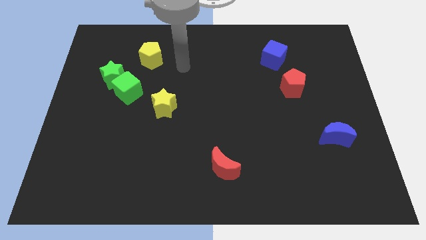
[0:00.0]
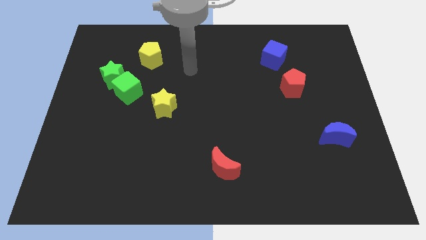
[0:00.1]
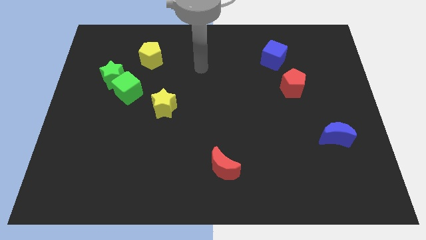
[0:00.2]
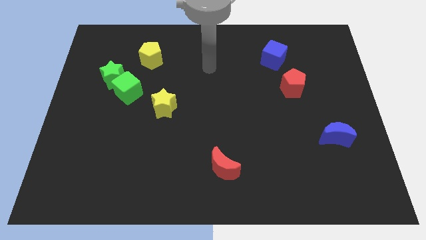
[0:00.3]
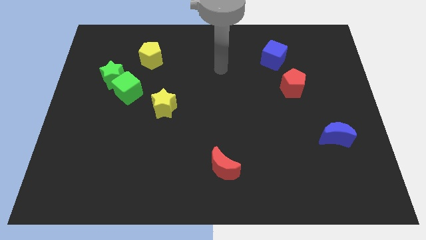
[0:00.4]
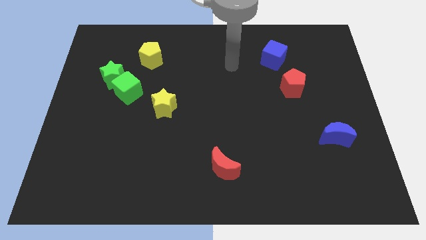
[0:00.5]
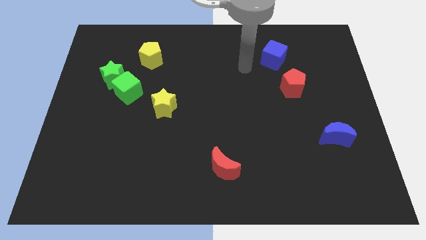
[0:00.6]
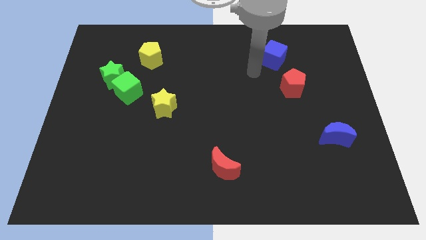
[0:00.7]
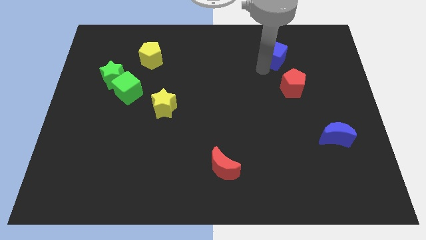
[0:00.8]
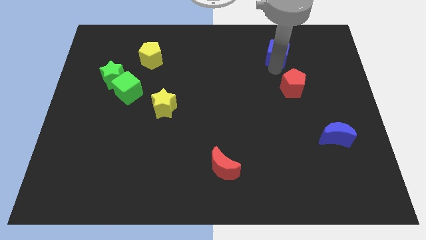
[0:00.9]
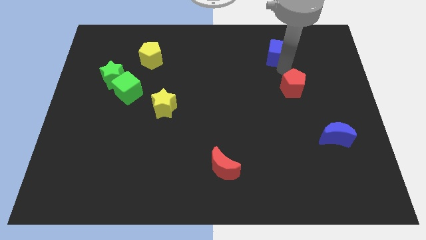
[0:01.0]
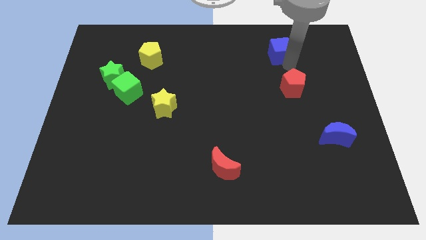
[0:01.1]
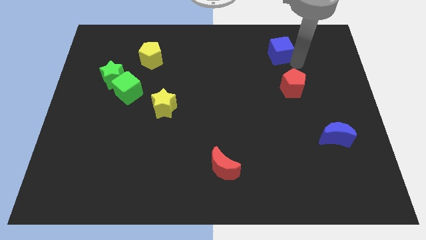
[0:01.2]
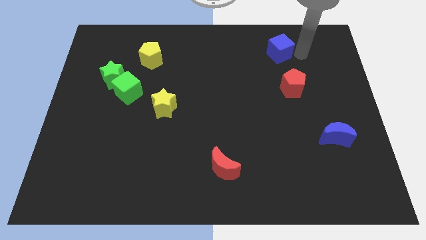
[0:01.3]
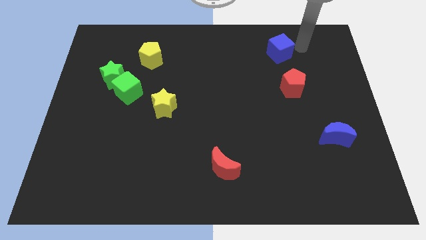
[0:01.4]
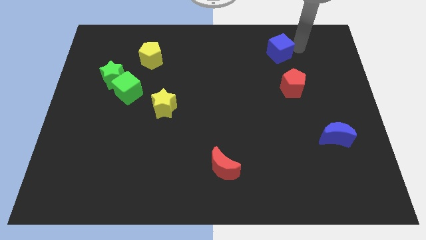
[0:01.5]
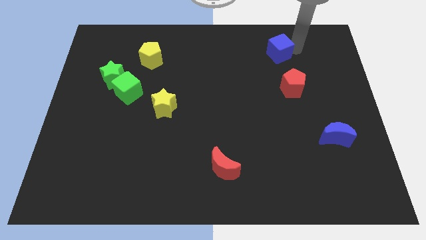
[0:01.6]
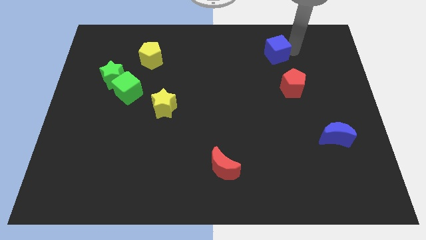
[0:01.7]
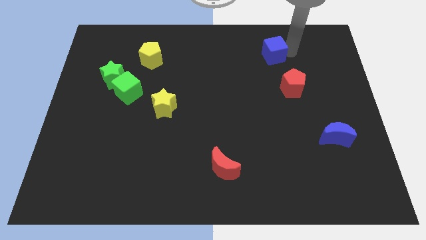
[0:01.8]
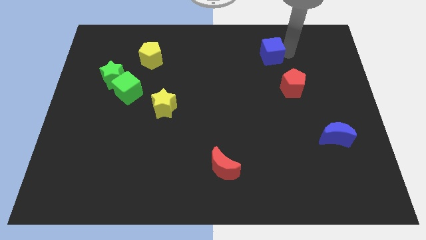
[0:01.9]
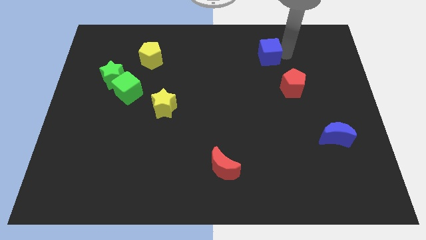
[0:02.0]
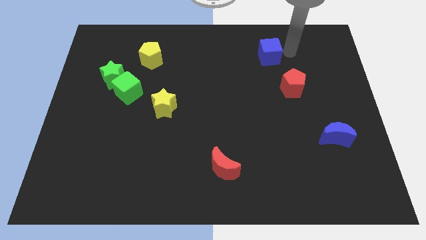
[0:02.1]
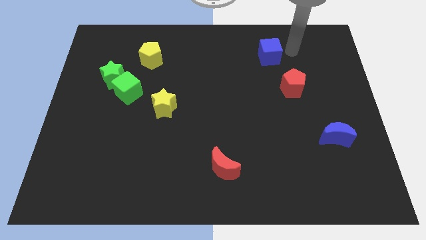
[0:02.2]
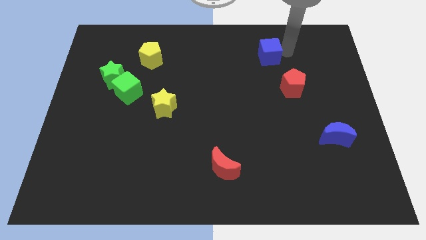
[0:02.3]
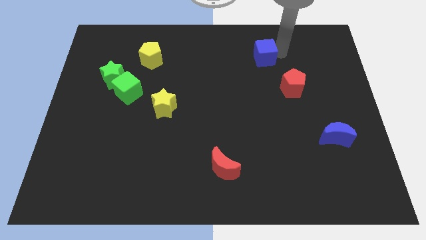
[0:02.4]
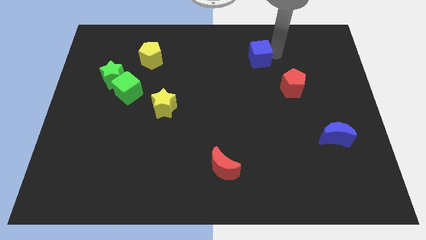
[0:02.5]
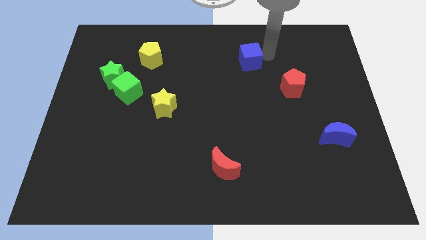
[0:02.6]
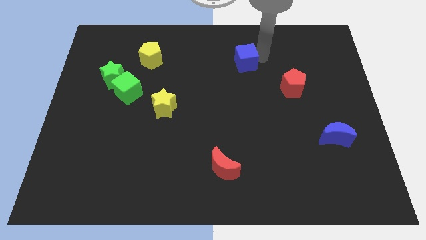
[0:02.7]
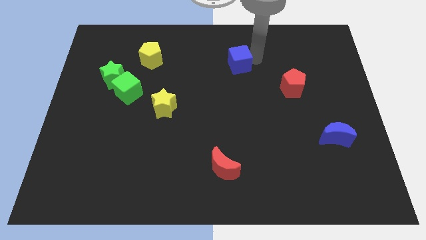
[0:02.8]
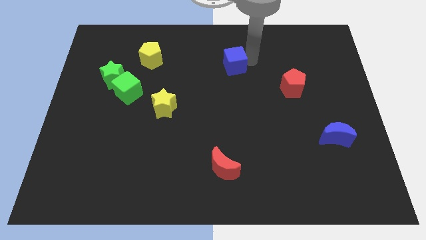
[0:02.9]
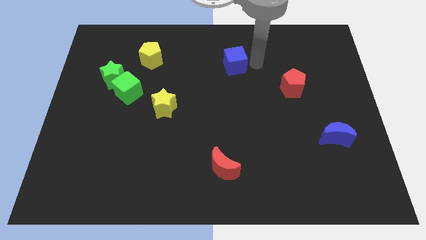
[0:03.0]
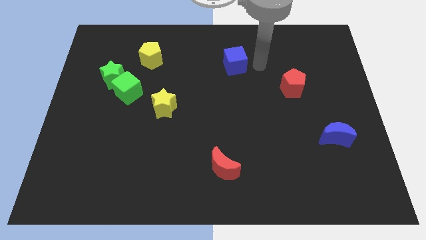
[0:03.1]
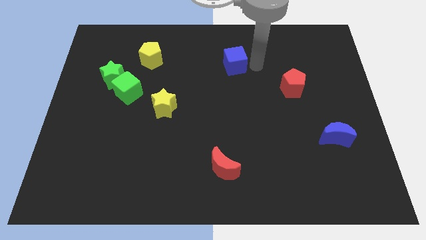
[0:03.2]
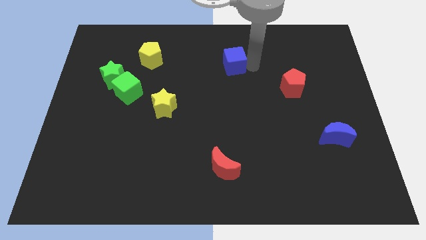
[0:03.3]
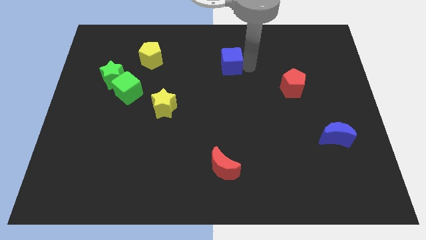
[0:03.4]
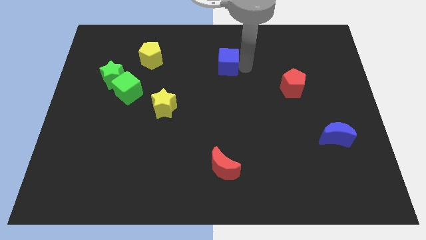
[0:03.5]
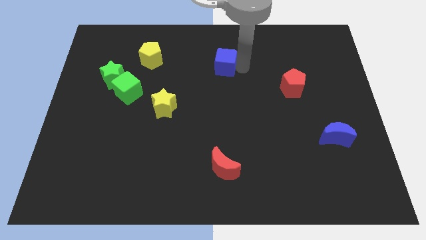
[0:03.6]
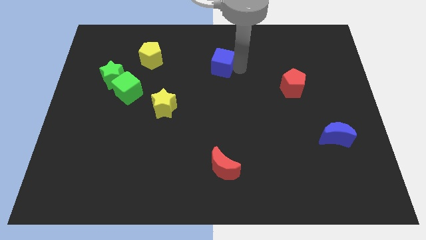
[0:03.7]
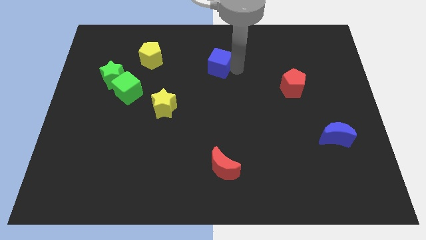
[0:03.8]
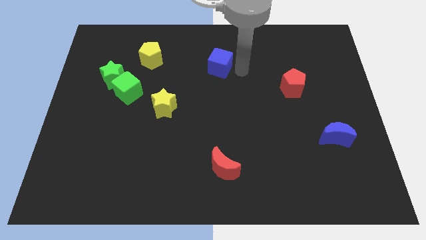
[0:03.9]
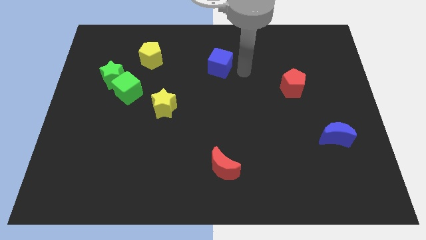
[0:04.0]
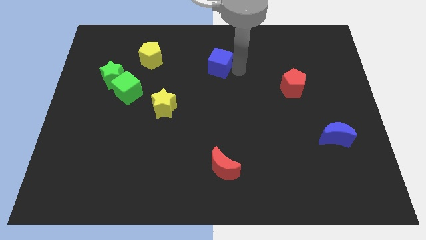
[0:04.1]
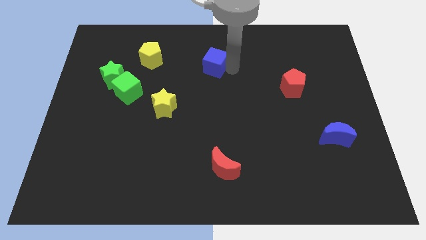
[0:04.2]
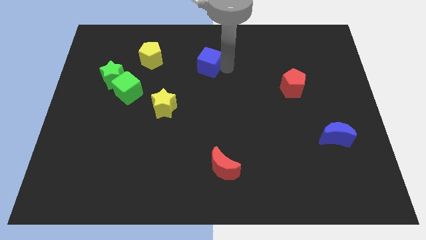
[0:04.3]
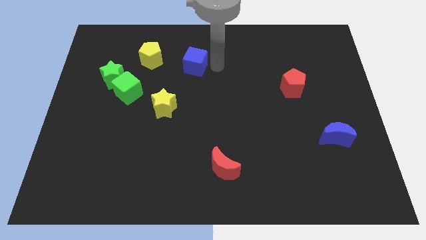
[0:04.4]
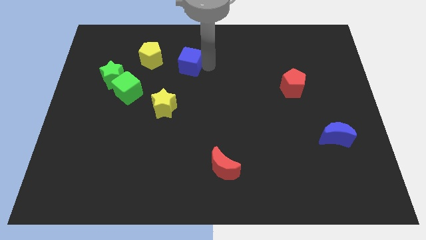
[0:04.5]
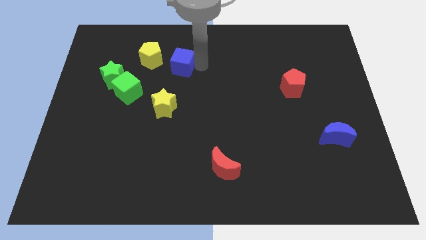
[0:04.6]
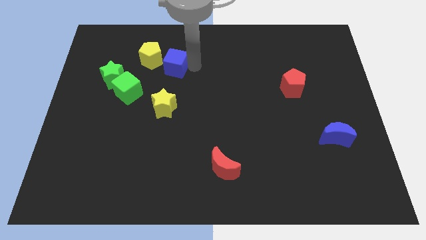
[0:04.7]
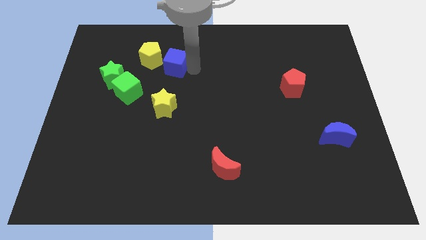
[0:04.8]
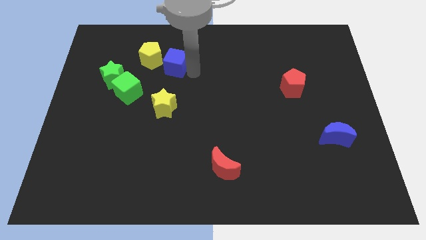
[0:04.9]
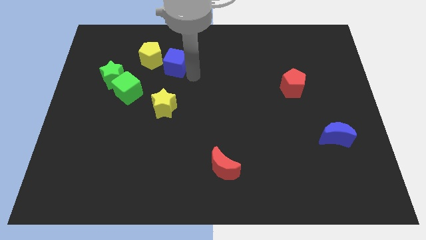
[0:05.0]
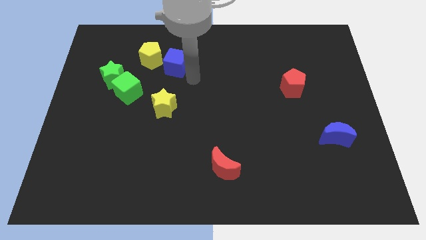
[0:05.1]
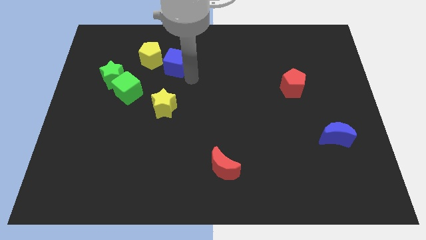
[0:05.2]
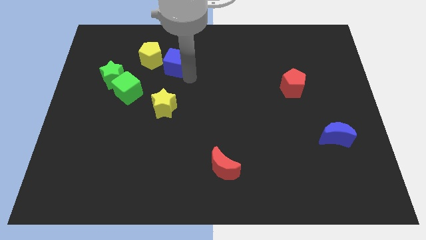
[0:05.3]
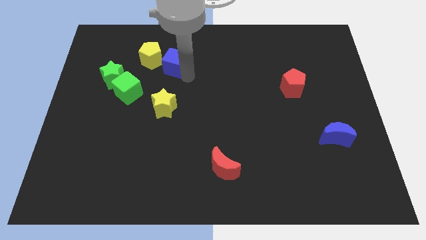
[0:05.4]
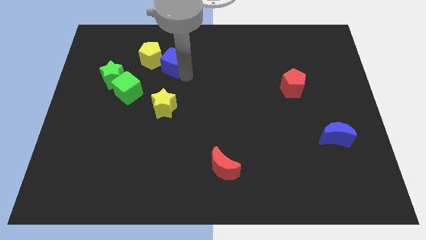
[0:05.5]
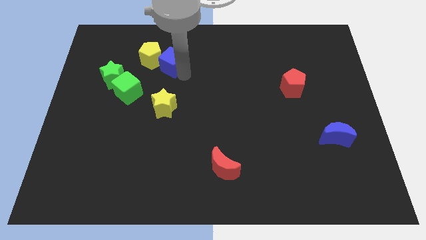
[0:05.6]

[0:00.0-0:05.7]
put the blue cube close to the yellow pentagon

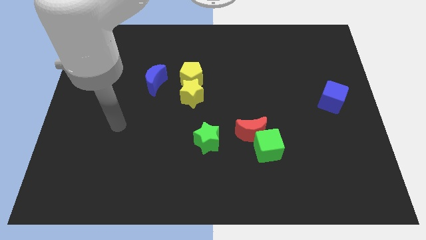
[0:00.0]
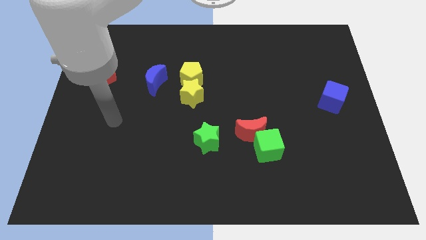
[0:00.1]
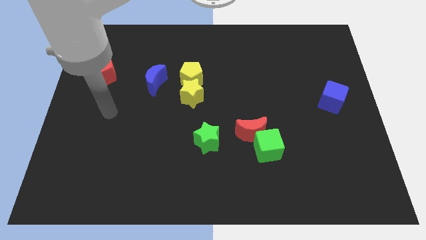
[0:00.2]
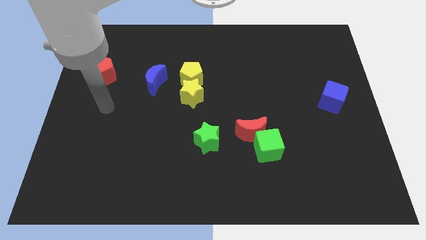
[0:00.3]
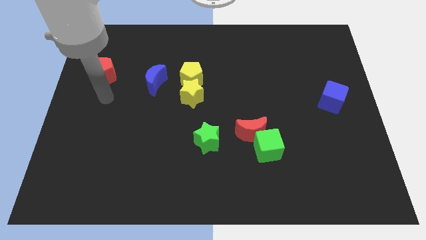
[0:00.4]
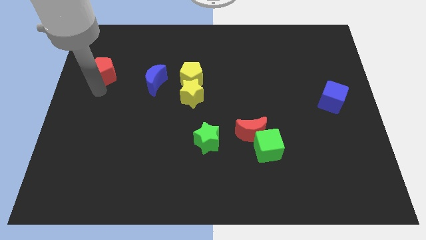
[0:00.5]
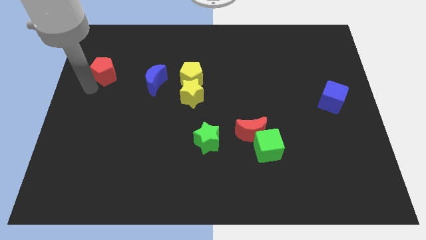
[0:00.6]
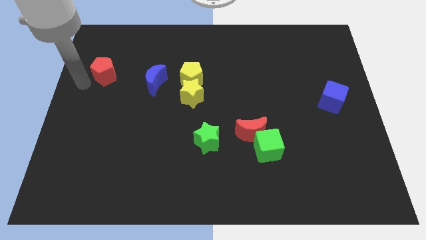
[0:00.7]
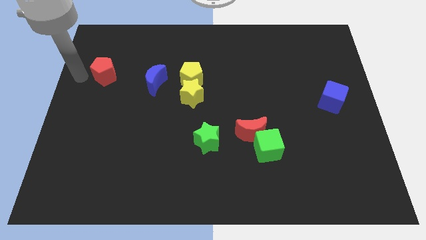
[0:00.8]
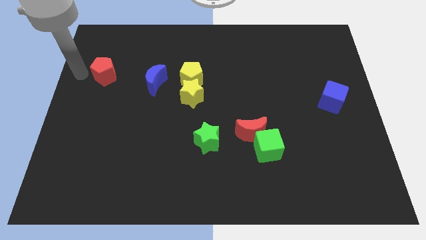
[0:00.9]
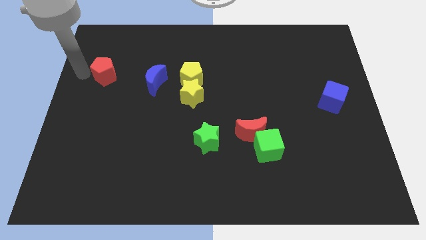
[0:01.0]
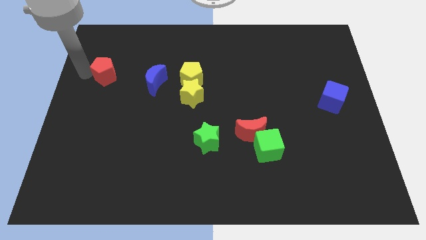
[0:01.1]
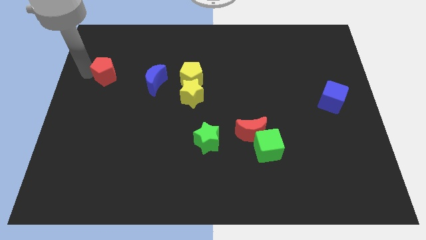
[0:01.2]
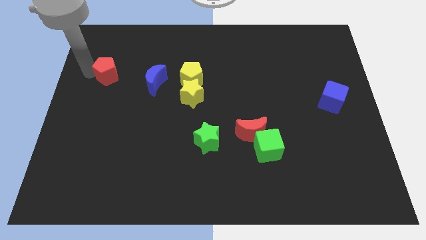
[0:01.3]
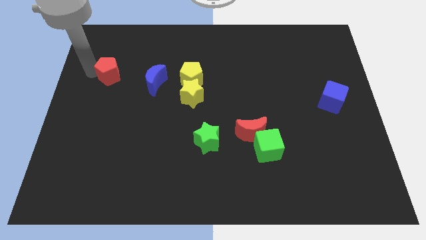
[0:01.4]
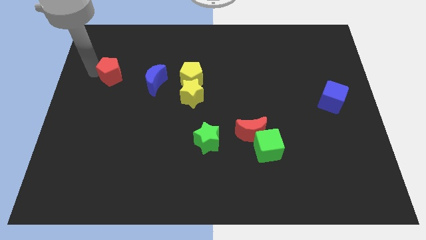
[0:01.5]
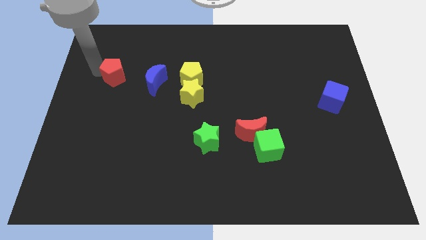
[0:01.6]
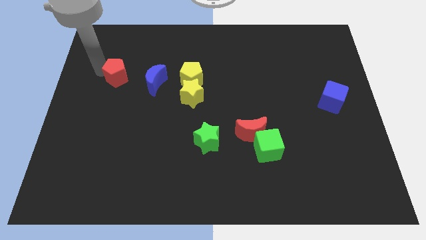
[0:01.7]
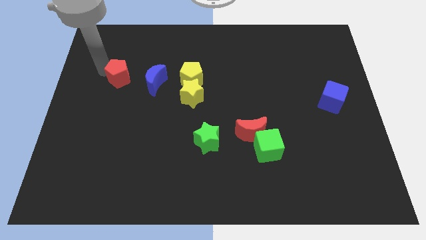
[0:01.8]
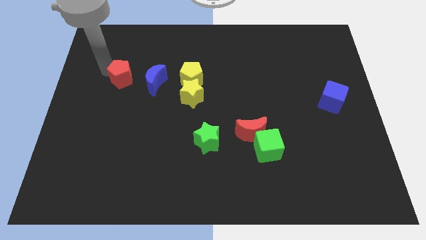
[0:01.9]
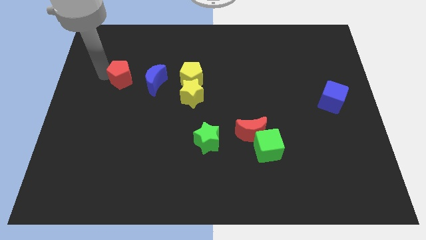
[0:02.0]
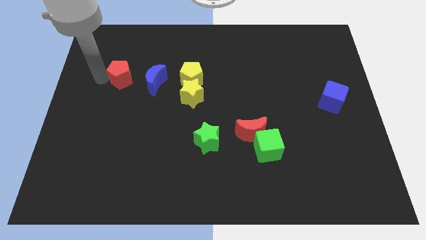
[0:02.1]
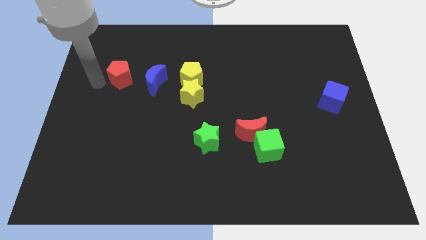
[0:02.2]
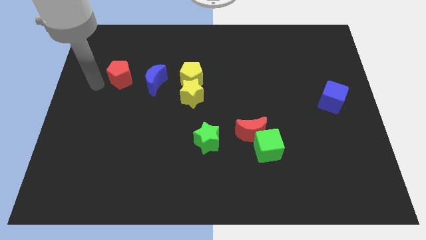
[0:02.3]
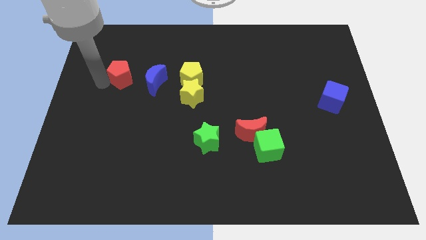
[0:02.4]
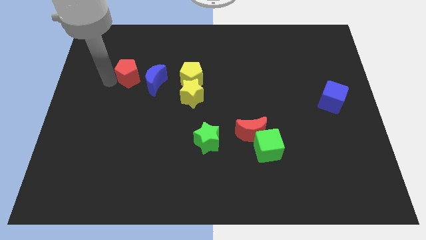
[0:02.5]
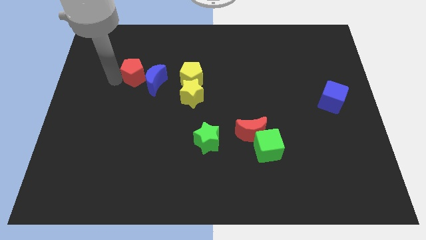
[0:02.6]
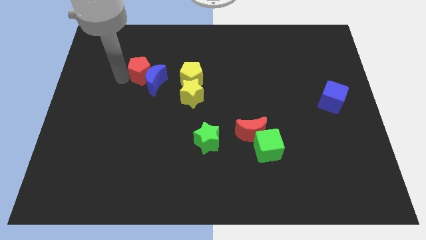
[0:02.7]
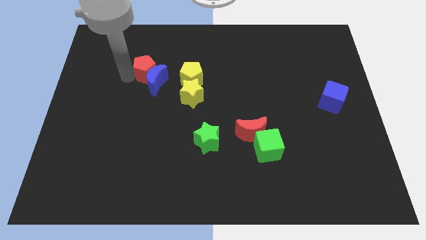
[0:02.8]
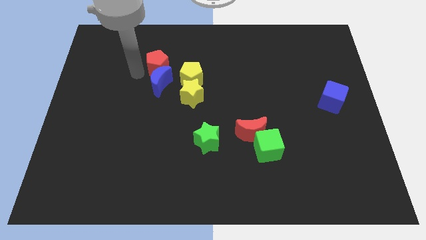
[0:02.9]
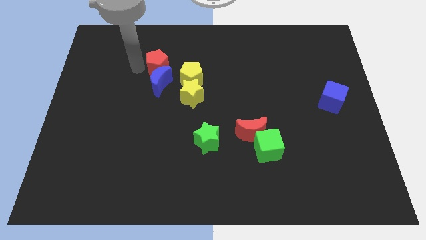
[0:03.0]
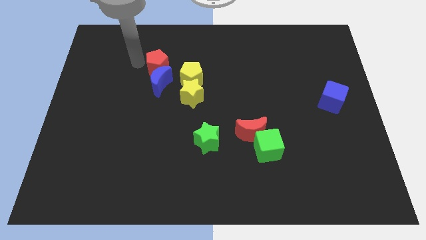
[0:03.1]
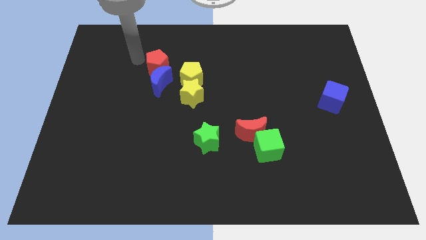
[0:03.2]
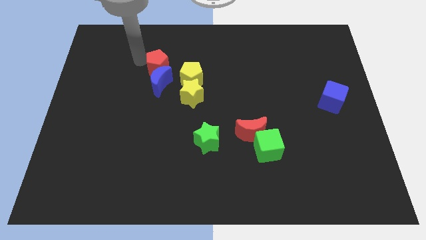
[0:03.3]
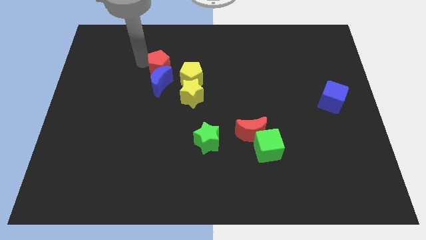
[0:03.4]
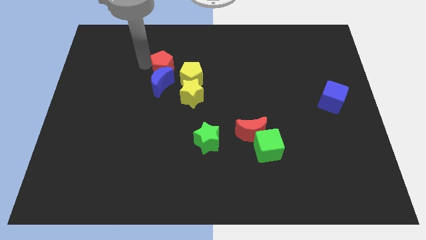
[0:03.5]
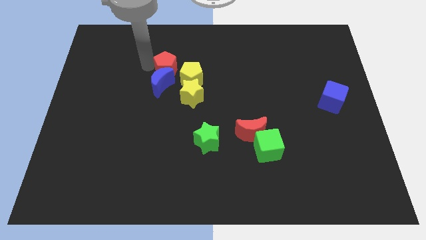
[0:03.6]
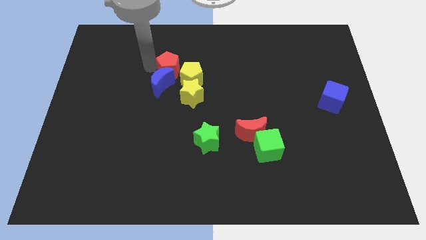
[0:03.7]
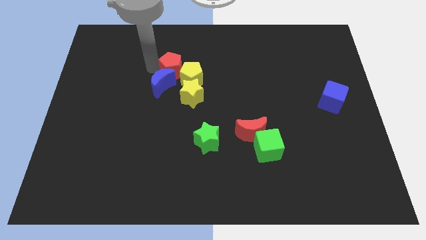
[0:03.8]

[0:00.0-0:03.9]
slide the red pentagon towards the yellow pentagon
